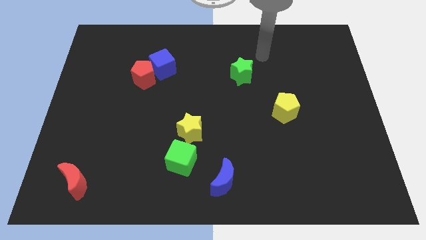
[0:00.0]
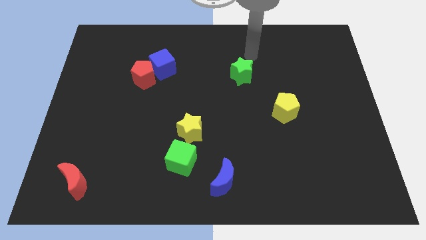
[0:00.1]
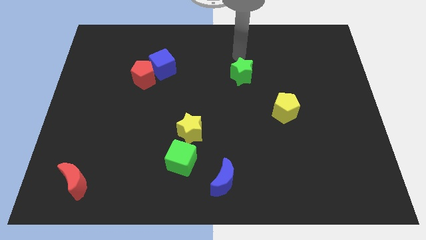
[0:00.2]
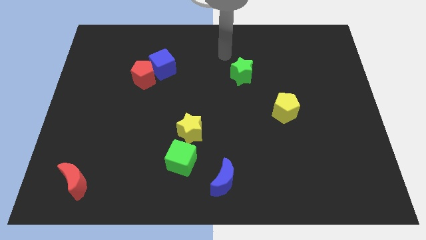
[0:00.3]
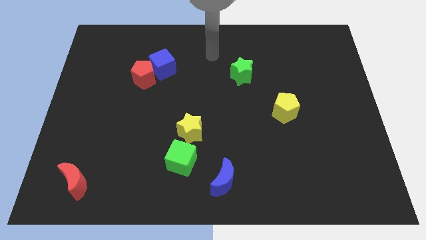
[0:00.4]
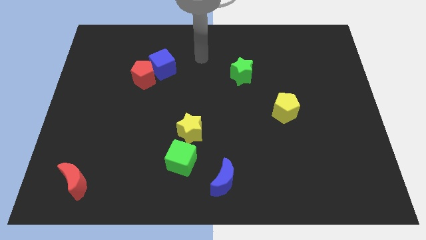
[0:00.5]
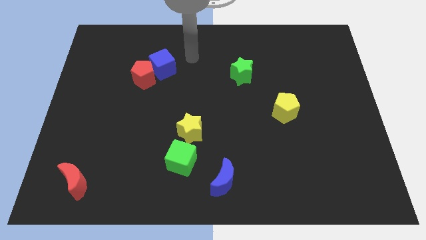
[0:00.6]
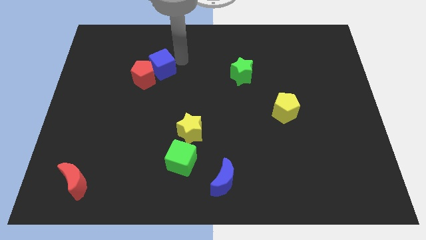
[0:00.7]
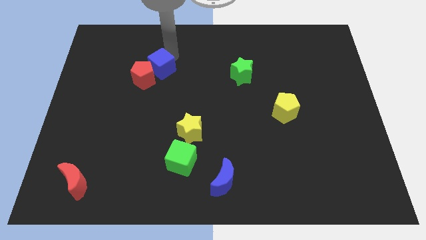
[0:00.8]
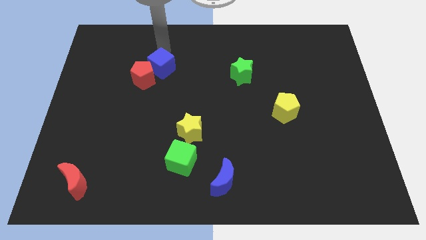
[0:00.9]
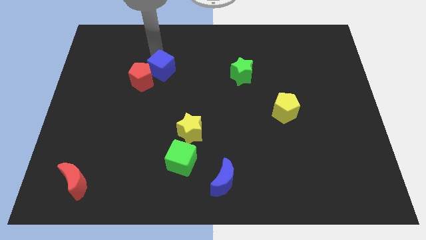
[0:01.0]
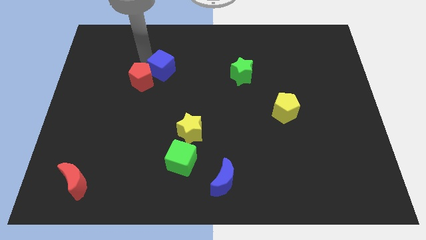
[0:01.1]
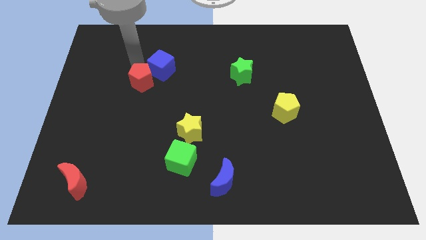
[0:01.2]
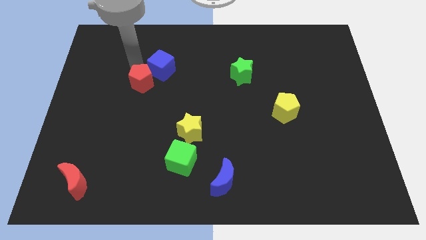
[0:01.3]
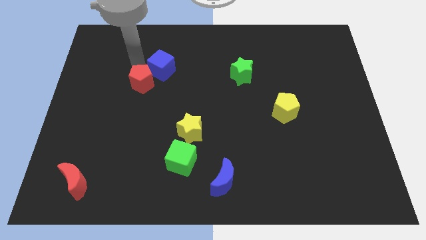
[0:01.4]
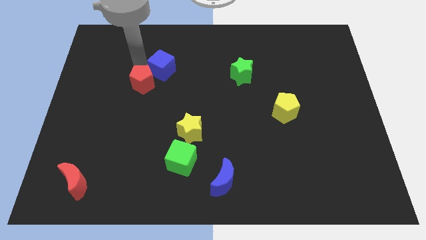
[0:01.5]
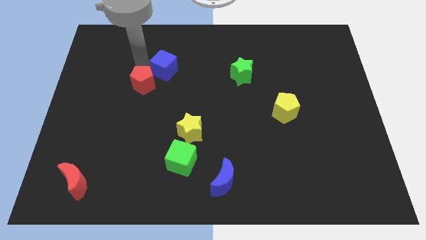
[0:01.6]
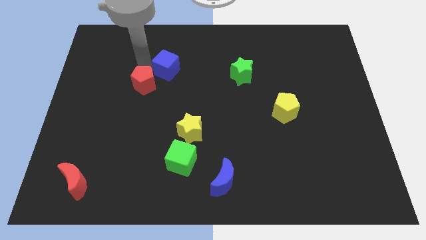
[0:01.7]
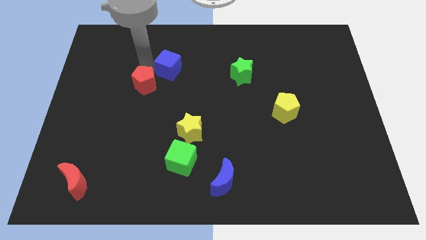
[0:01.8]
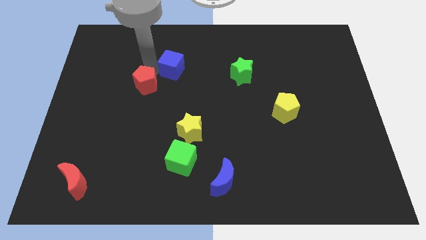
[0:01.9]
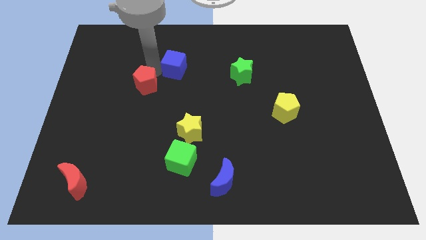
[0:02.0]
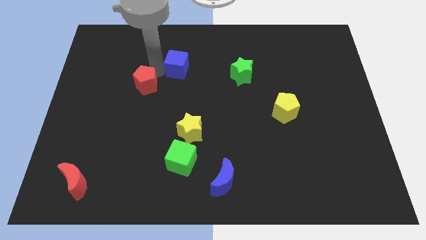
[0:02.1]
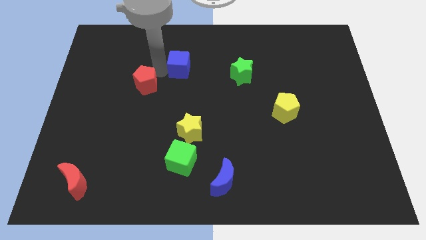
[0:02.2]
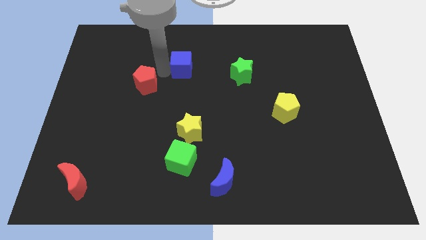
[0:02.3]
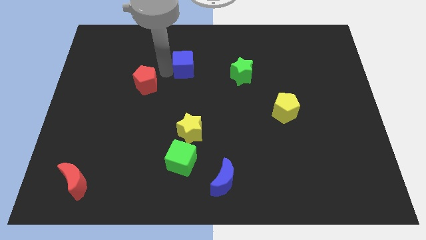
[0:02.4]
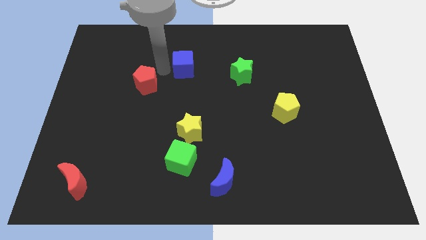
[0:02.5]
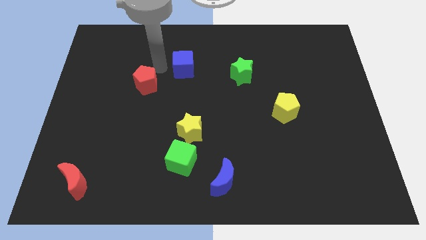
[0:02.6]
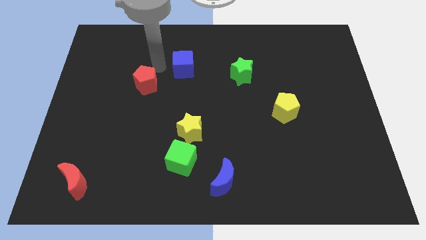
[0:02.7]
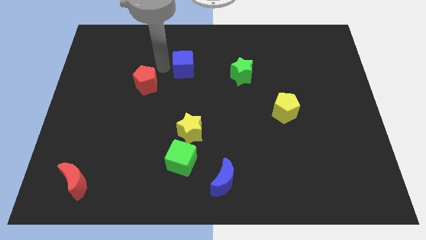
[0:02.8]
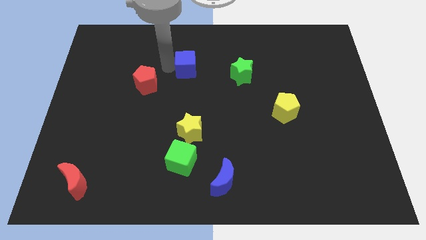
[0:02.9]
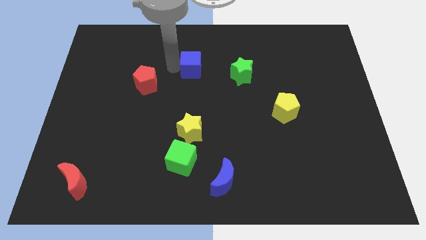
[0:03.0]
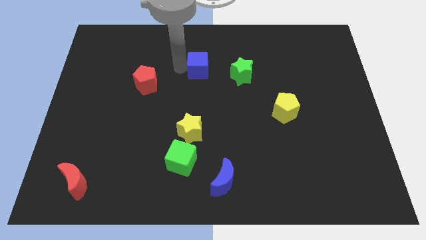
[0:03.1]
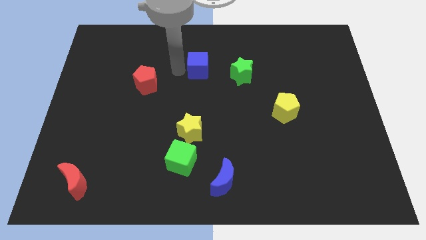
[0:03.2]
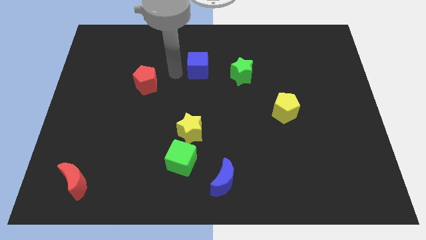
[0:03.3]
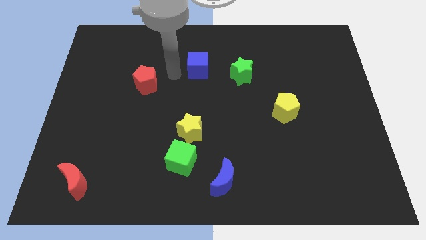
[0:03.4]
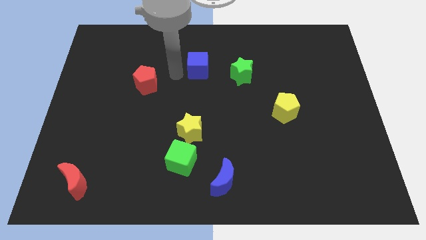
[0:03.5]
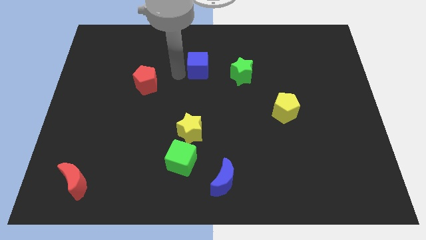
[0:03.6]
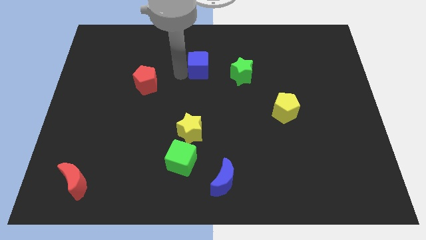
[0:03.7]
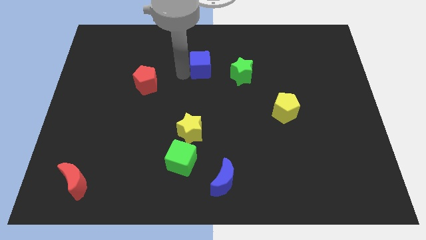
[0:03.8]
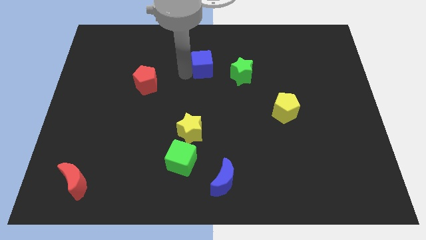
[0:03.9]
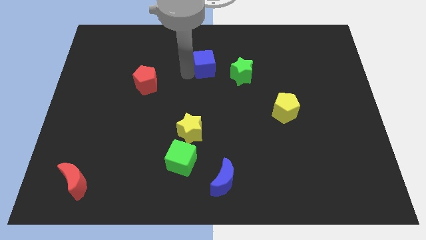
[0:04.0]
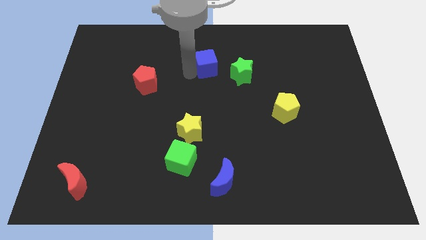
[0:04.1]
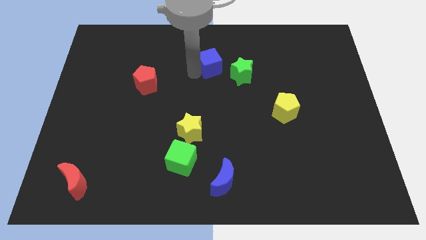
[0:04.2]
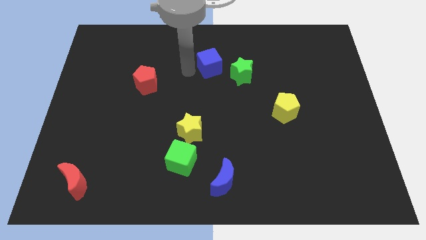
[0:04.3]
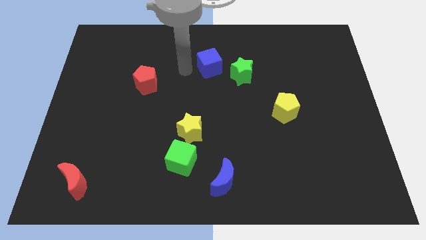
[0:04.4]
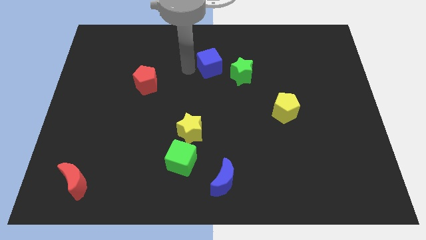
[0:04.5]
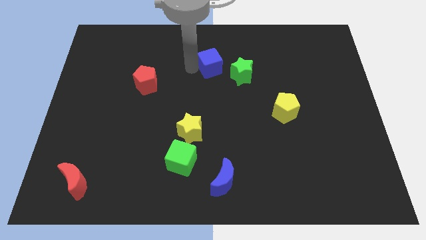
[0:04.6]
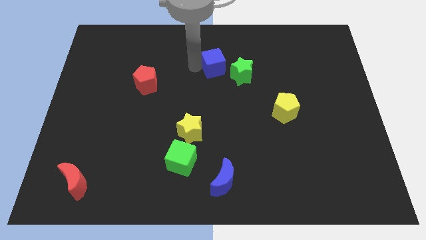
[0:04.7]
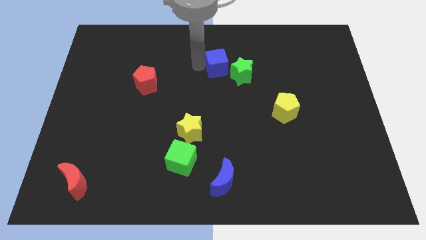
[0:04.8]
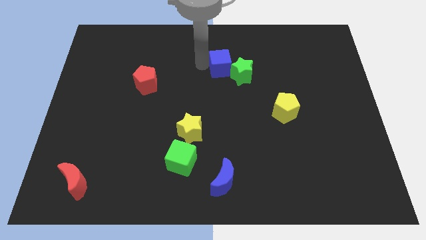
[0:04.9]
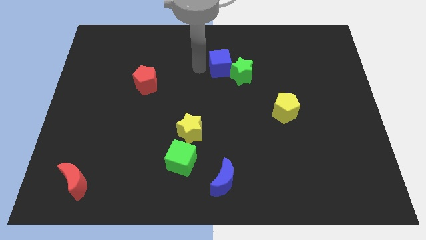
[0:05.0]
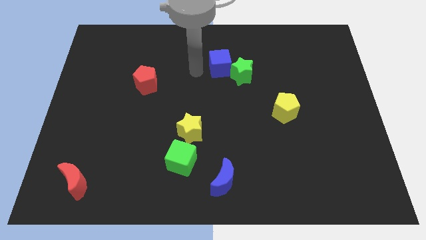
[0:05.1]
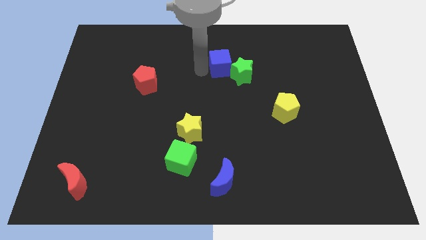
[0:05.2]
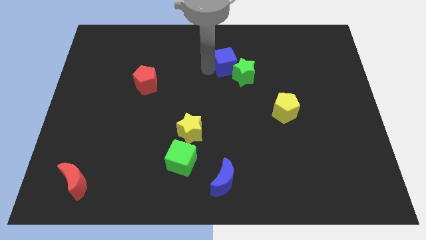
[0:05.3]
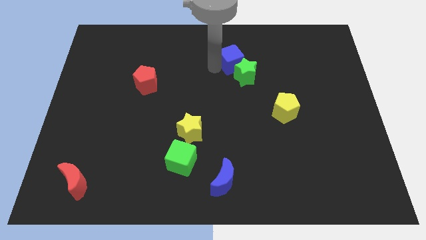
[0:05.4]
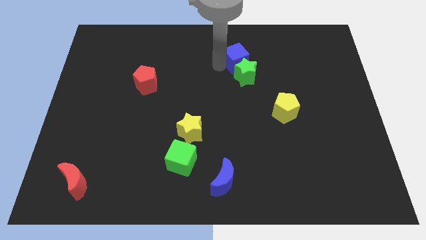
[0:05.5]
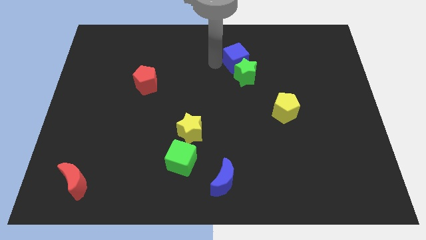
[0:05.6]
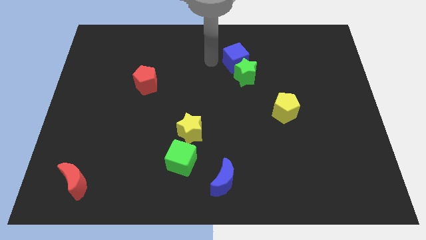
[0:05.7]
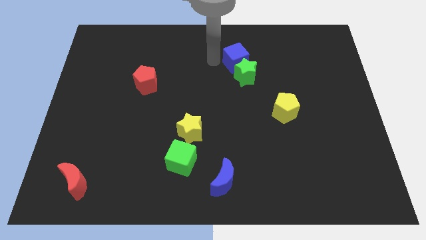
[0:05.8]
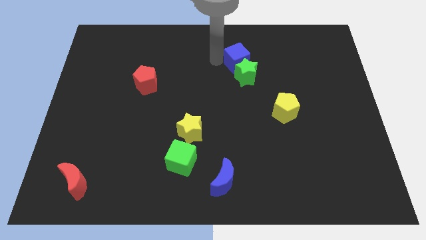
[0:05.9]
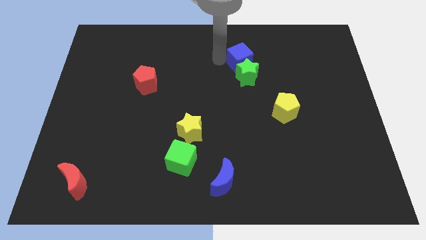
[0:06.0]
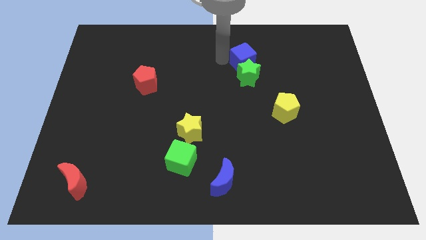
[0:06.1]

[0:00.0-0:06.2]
push the blue cube to the top right side of the green star

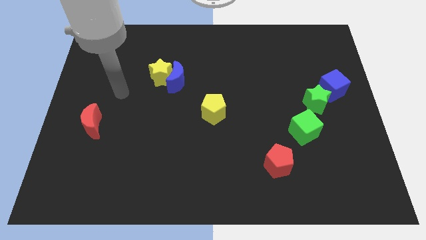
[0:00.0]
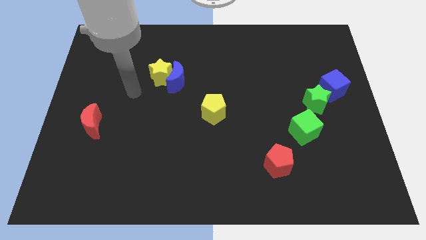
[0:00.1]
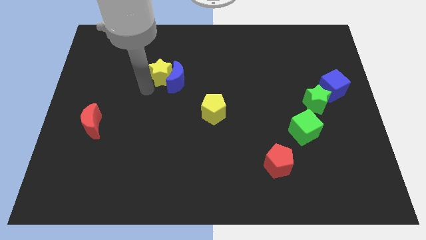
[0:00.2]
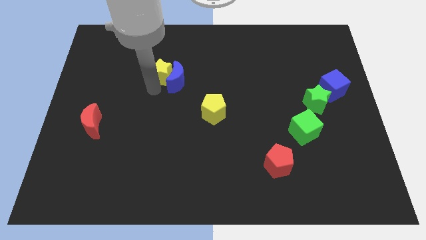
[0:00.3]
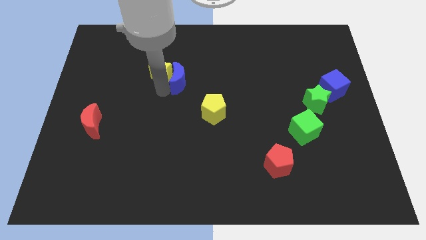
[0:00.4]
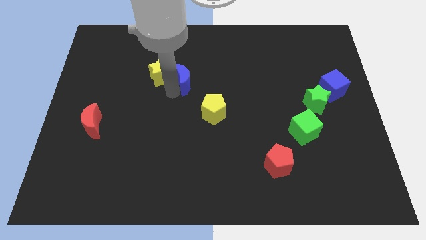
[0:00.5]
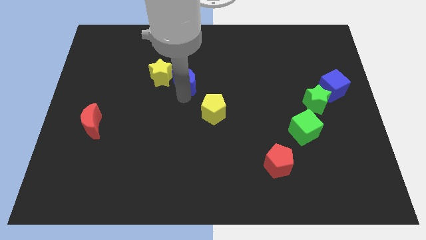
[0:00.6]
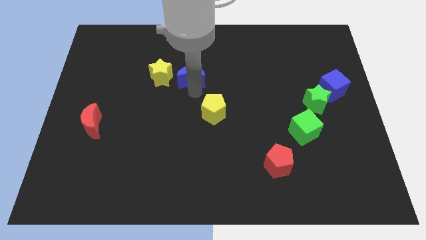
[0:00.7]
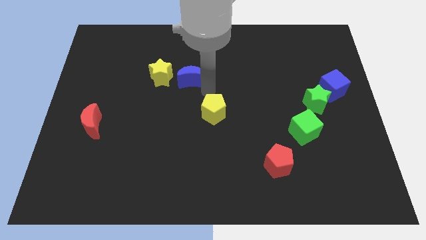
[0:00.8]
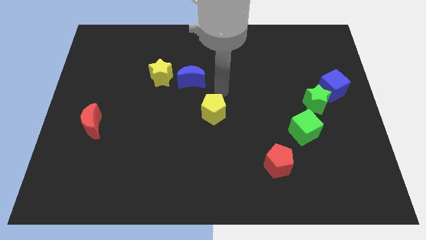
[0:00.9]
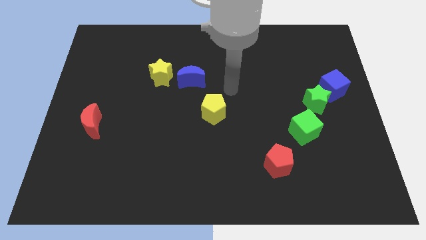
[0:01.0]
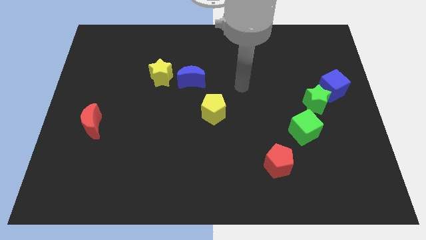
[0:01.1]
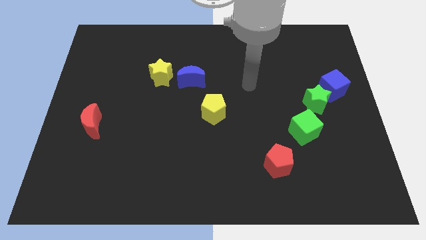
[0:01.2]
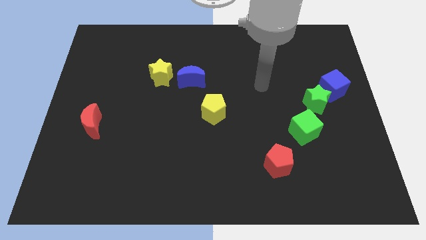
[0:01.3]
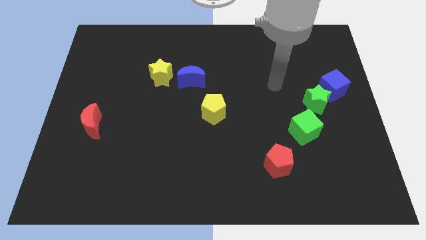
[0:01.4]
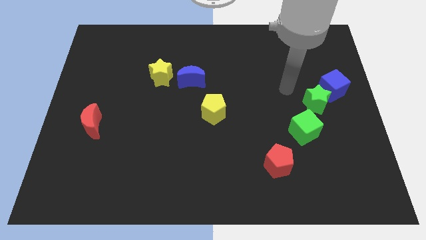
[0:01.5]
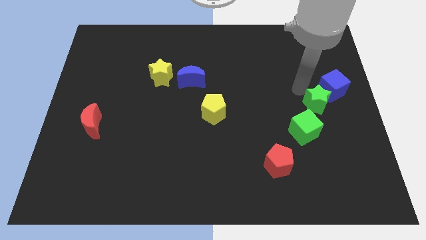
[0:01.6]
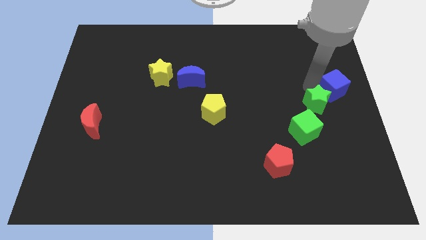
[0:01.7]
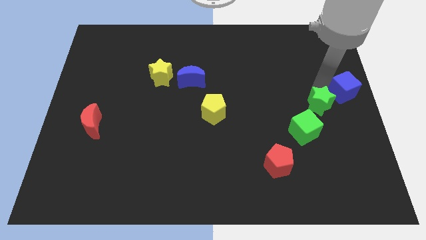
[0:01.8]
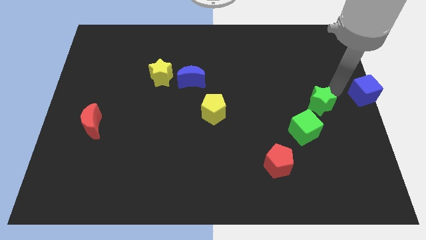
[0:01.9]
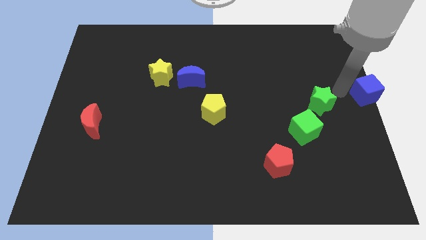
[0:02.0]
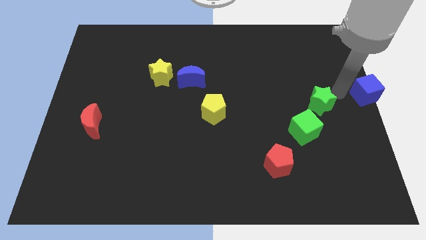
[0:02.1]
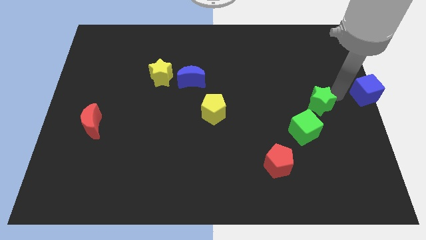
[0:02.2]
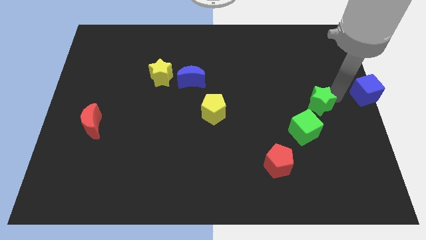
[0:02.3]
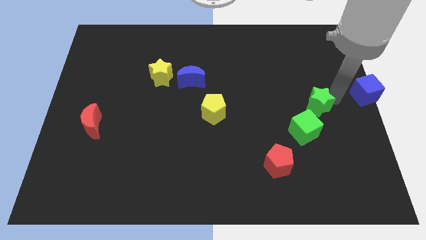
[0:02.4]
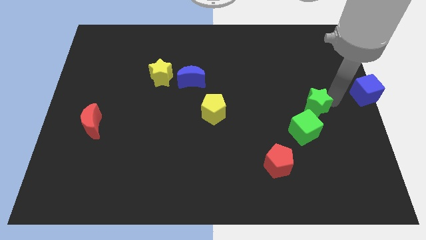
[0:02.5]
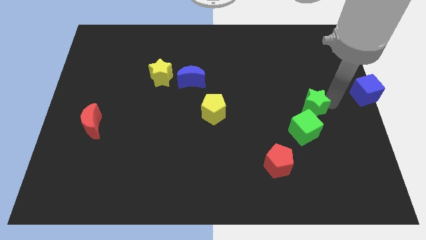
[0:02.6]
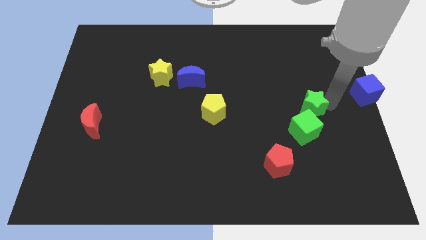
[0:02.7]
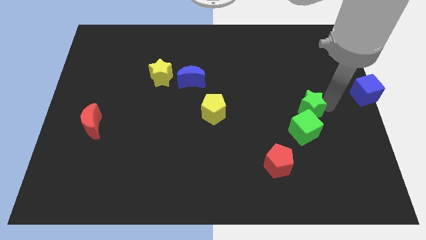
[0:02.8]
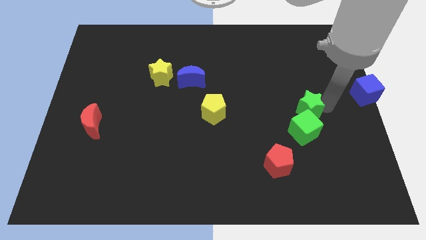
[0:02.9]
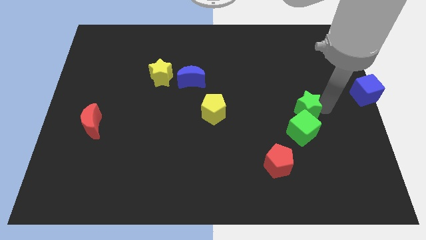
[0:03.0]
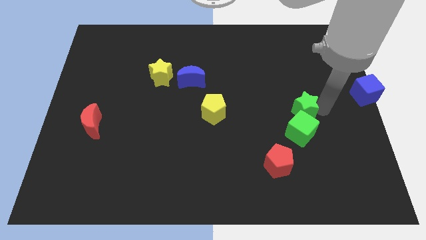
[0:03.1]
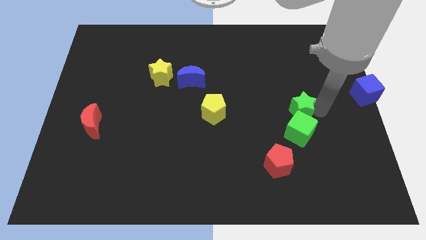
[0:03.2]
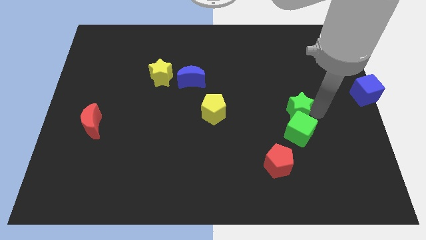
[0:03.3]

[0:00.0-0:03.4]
move the green star to the top left side of the green cube
